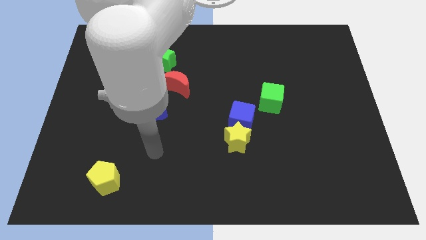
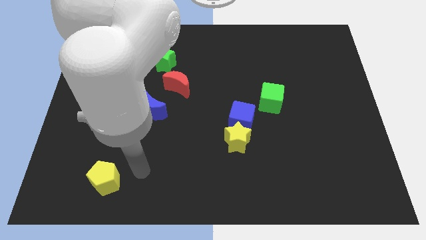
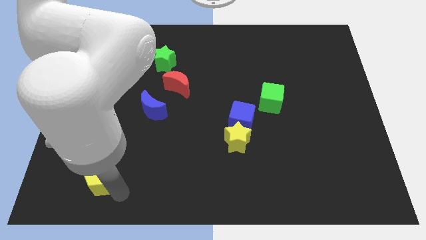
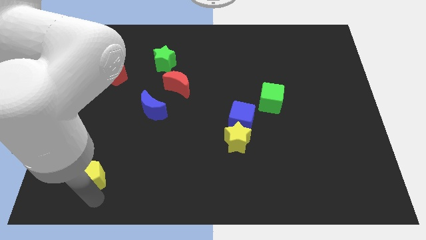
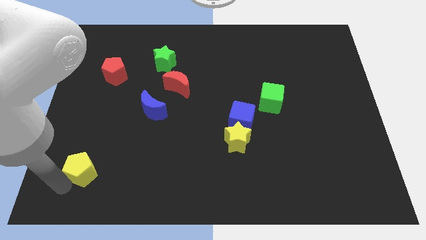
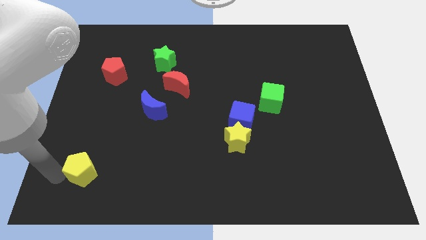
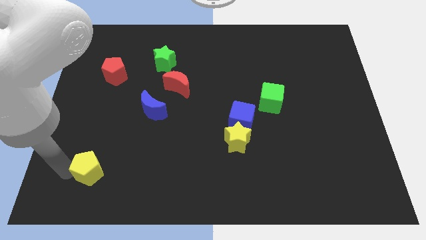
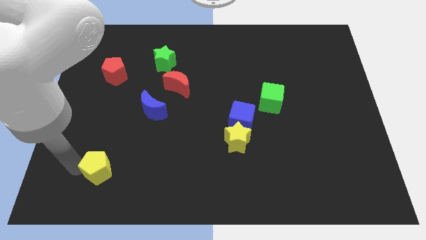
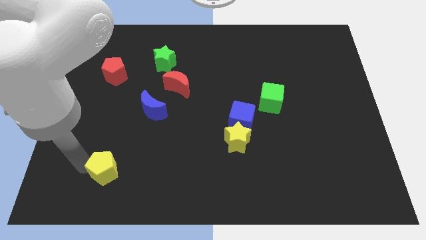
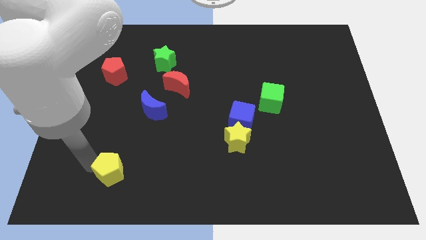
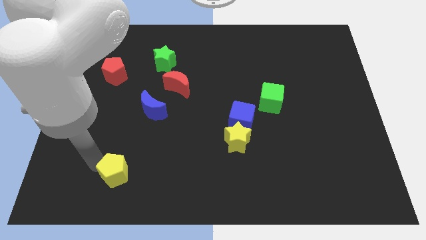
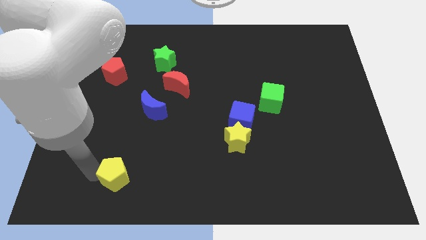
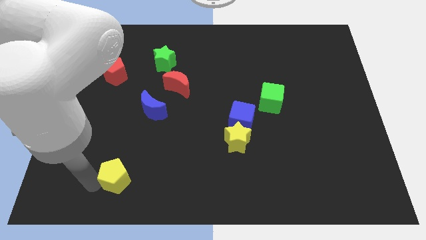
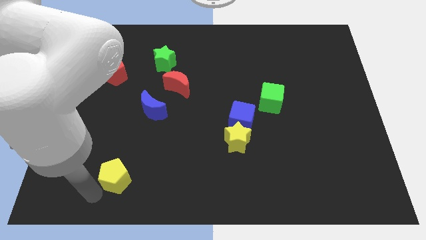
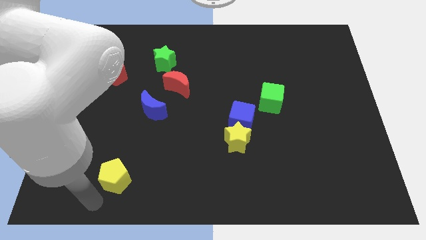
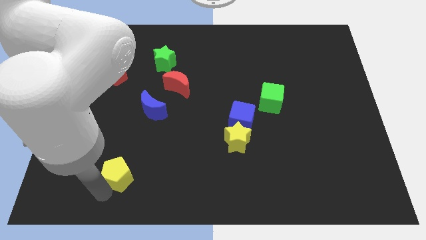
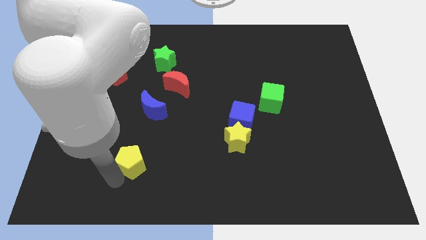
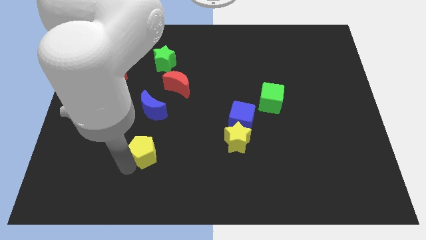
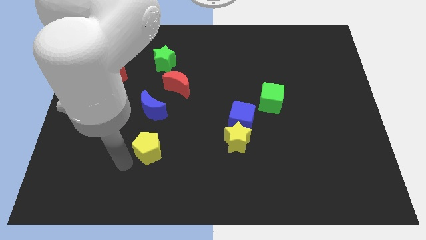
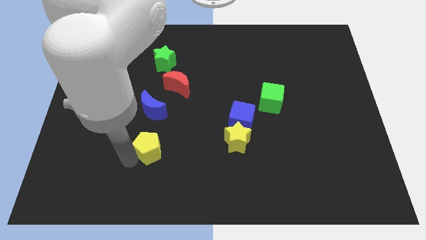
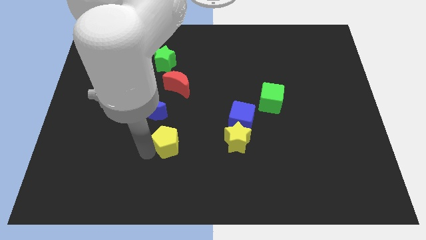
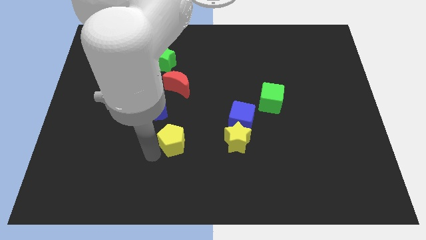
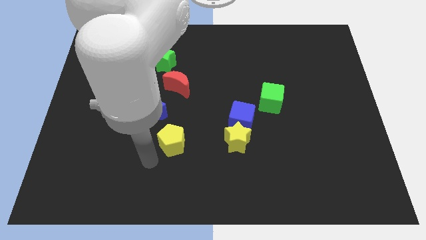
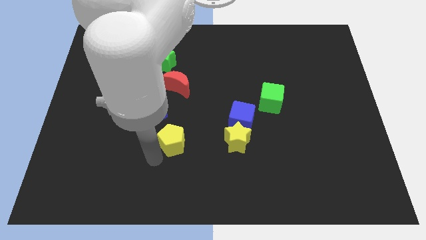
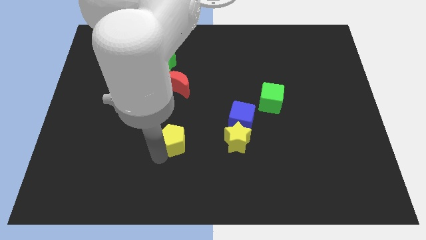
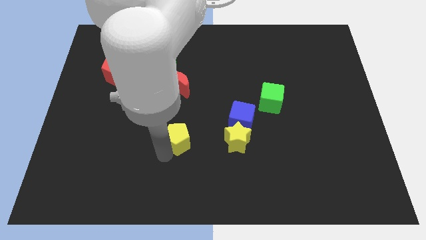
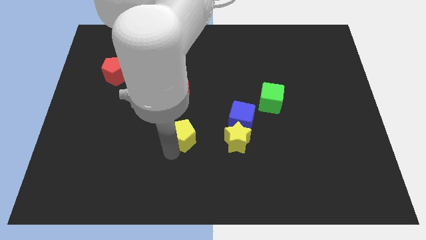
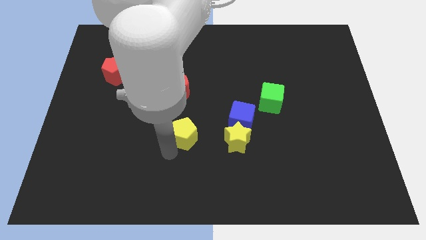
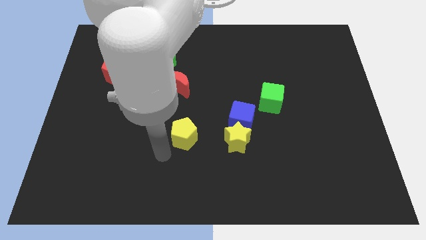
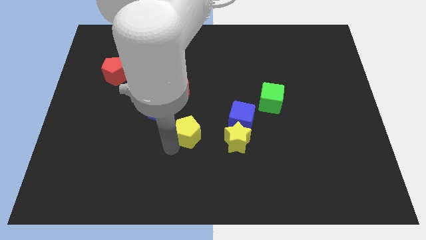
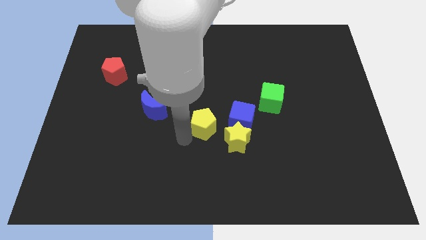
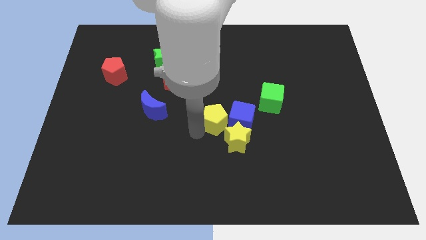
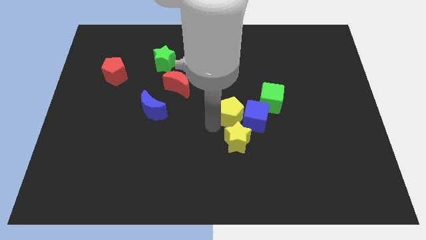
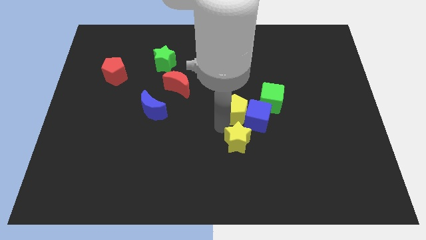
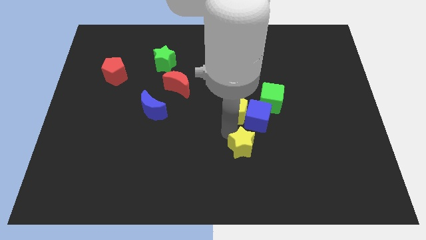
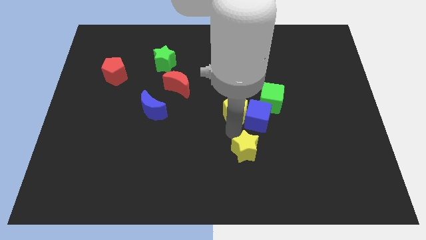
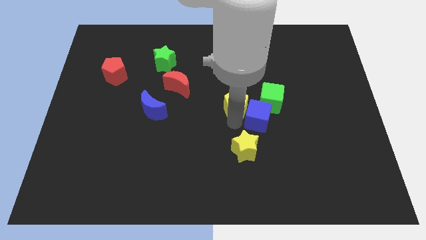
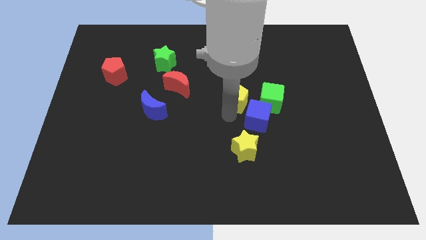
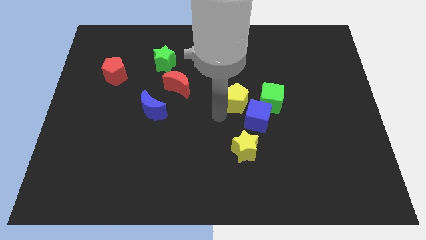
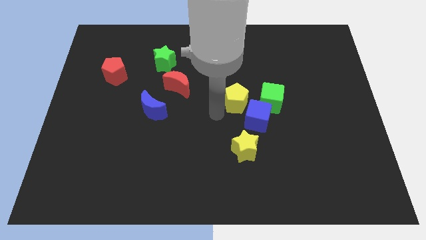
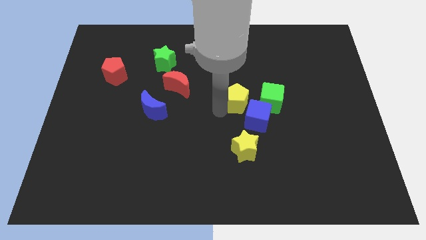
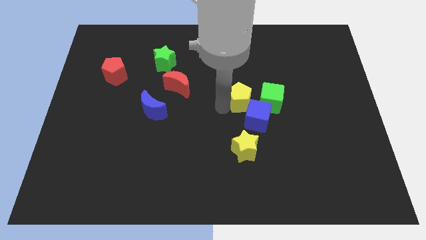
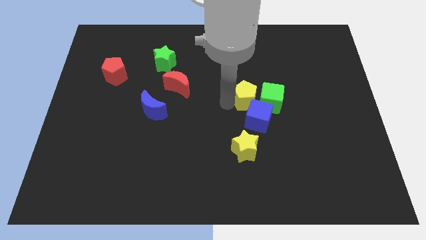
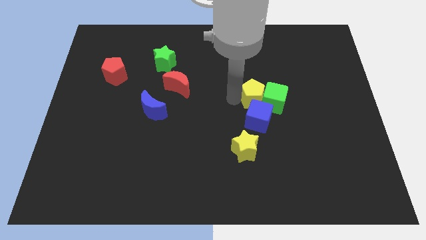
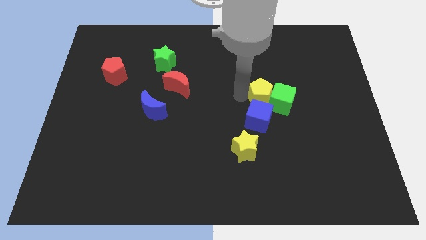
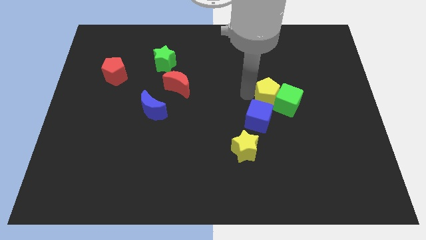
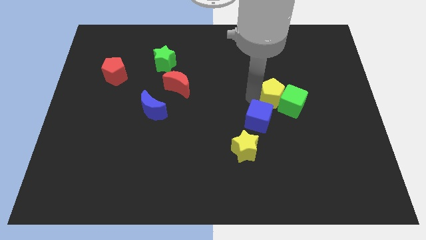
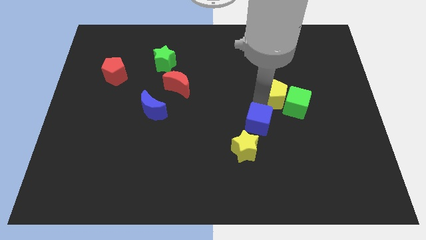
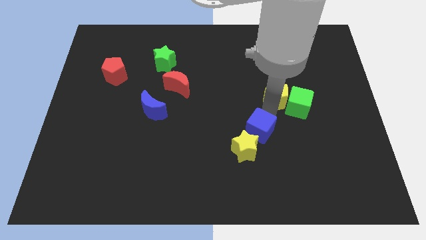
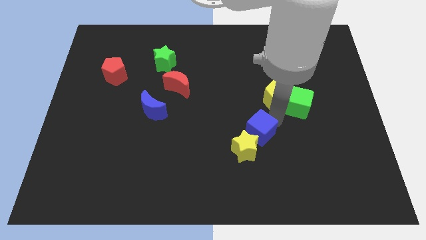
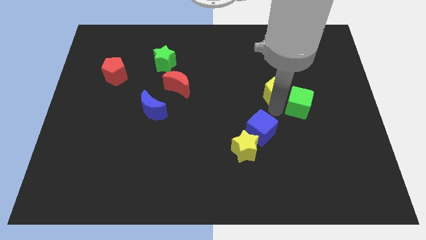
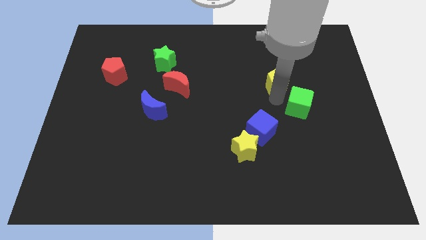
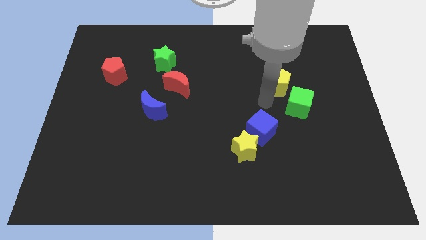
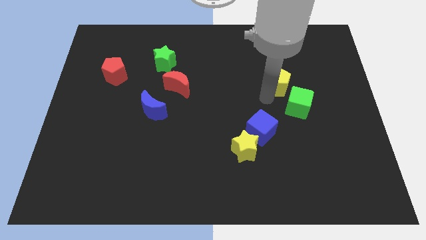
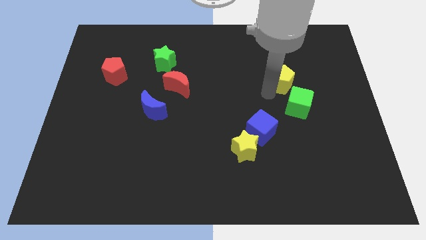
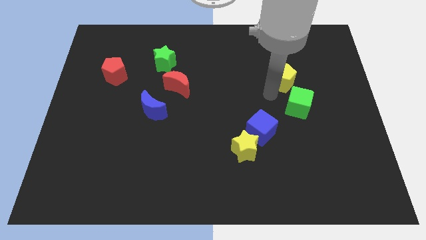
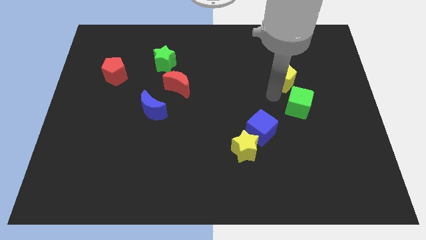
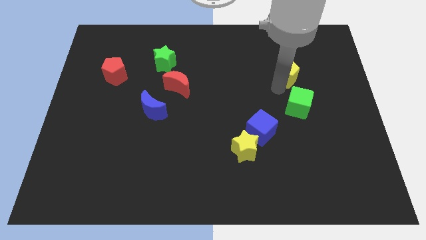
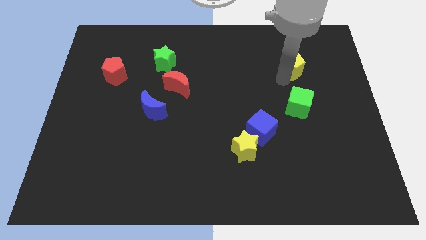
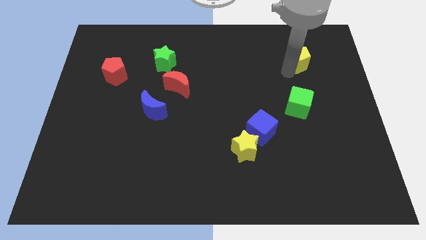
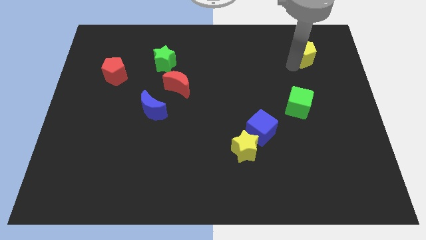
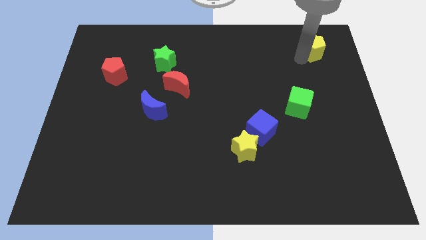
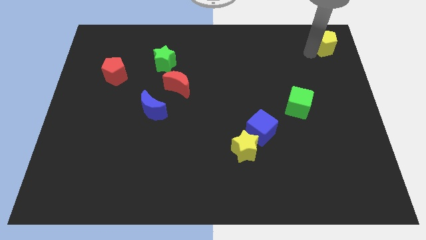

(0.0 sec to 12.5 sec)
put the yellow pentagon to the top right
